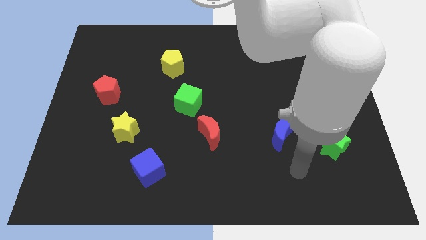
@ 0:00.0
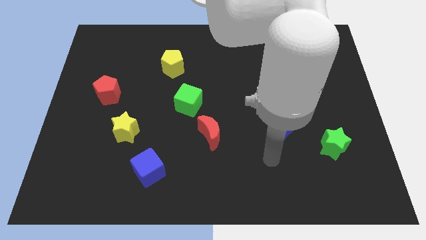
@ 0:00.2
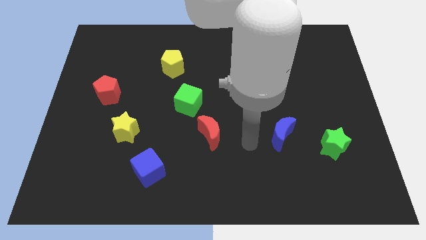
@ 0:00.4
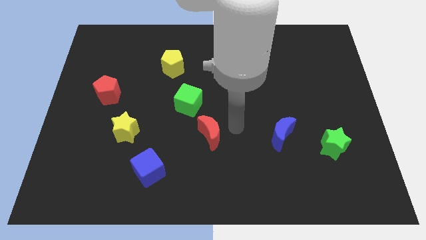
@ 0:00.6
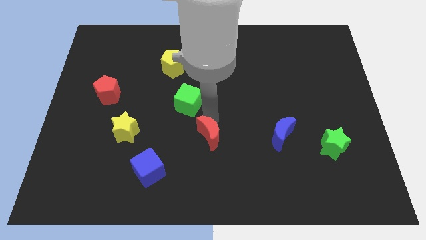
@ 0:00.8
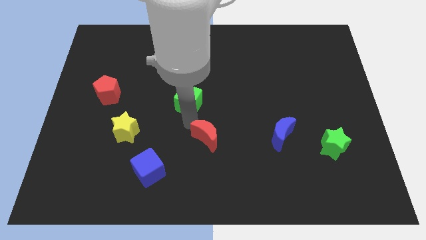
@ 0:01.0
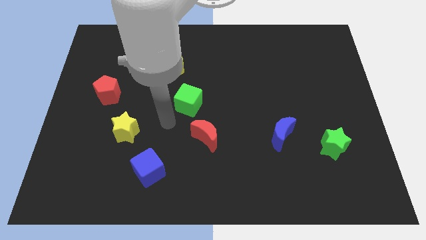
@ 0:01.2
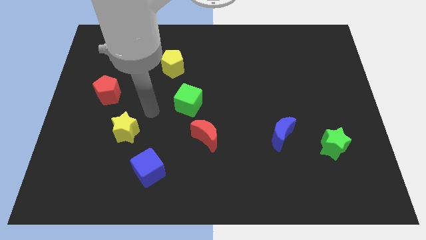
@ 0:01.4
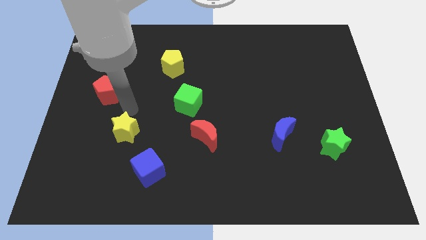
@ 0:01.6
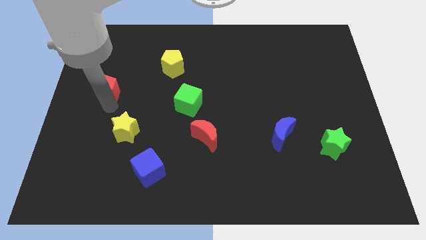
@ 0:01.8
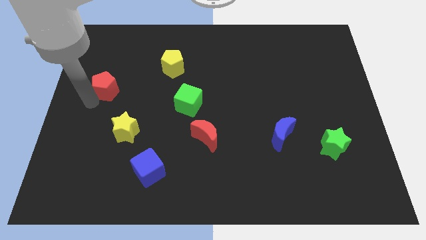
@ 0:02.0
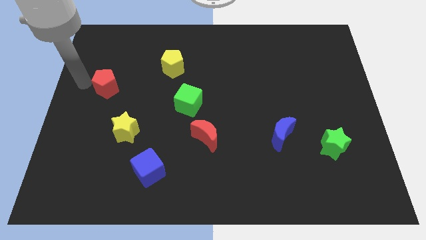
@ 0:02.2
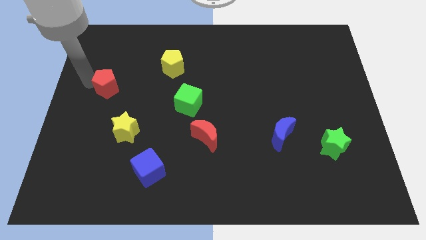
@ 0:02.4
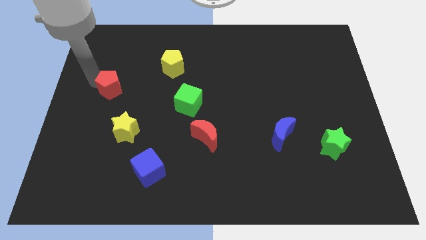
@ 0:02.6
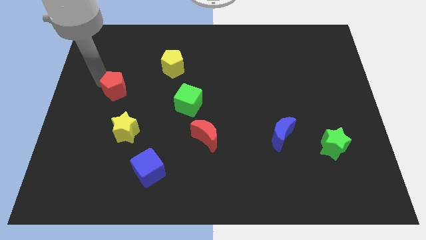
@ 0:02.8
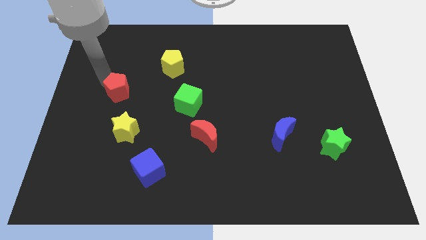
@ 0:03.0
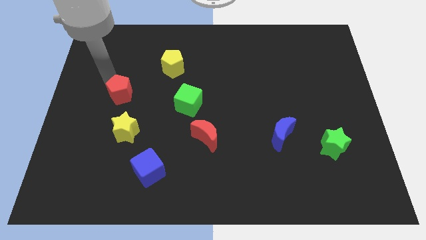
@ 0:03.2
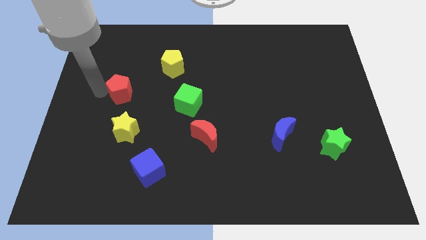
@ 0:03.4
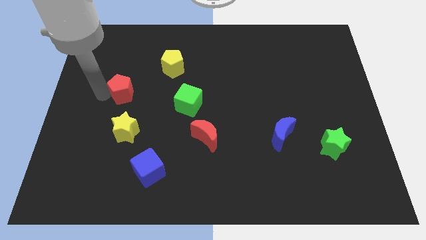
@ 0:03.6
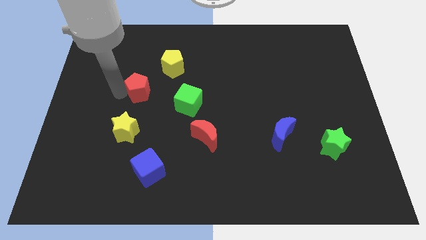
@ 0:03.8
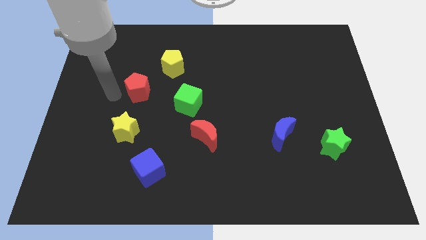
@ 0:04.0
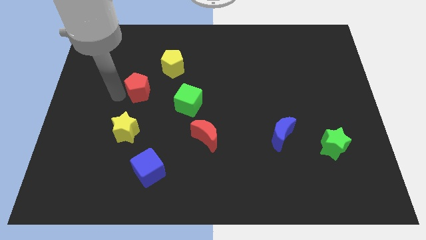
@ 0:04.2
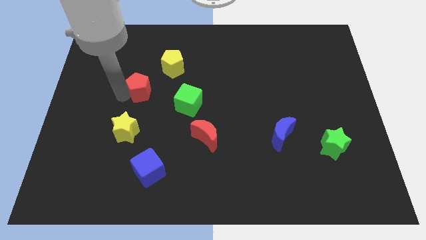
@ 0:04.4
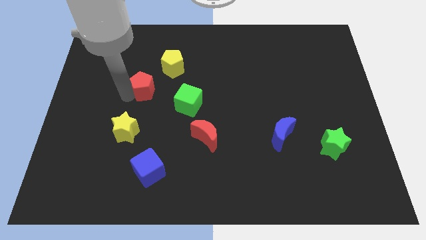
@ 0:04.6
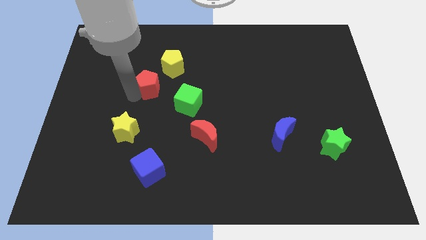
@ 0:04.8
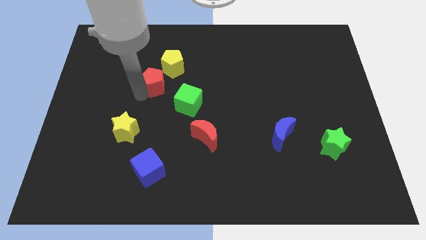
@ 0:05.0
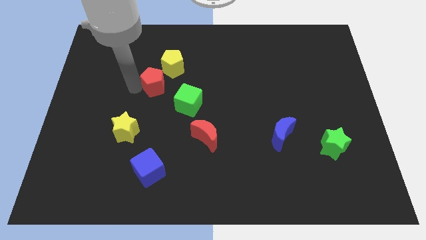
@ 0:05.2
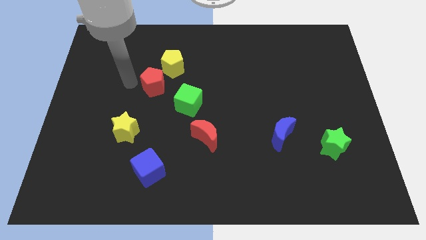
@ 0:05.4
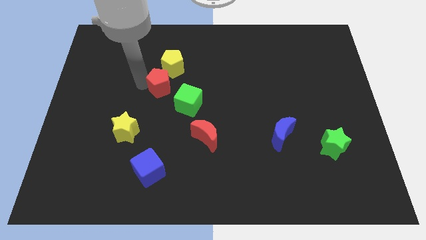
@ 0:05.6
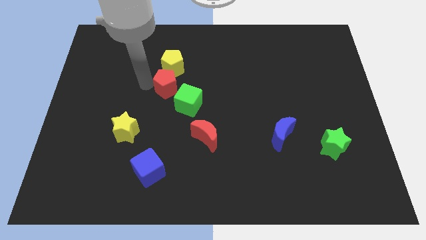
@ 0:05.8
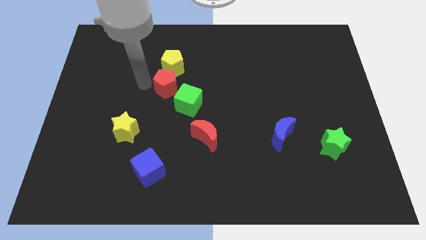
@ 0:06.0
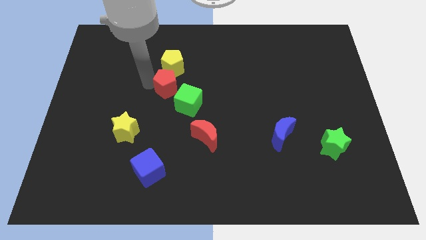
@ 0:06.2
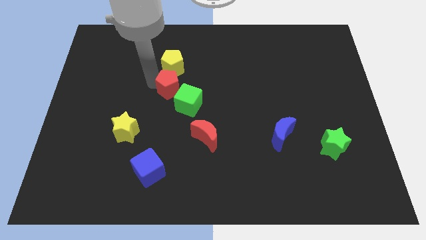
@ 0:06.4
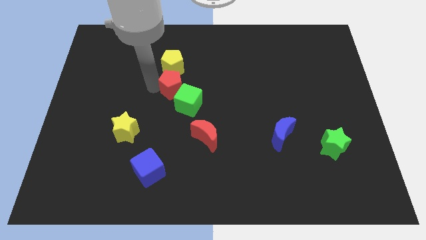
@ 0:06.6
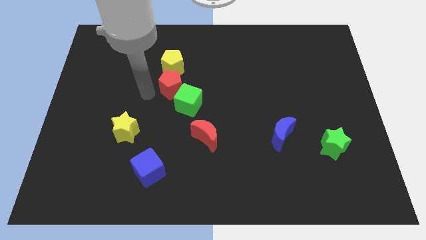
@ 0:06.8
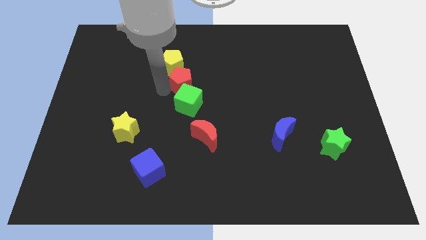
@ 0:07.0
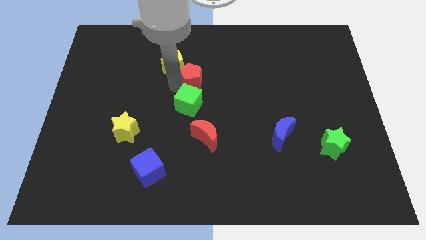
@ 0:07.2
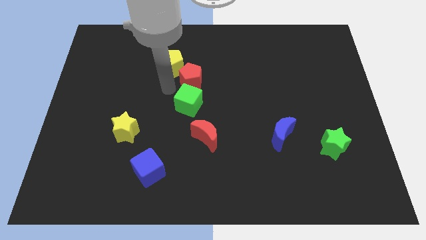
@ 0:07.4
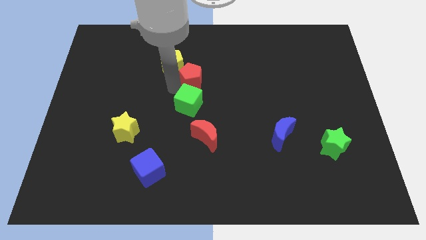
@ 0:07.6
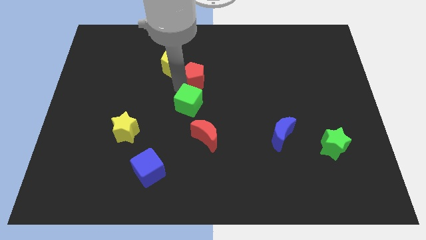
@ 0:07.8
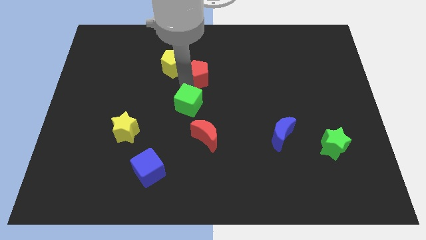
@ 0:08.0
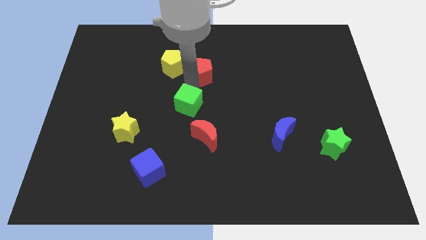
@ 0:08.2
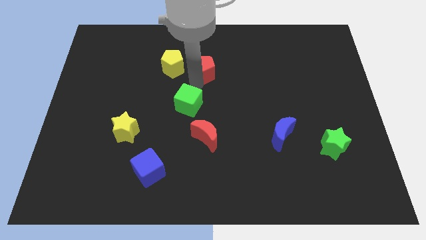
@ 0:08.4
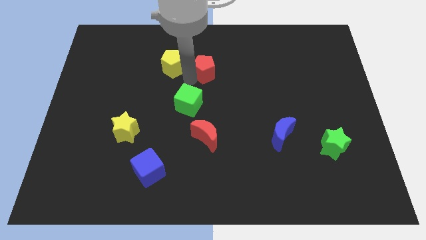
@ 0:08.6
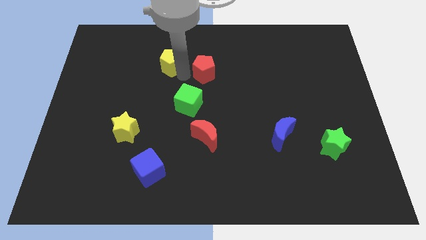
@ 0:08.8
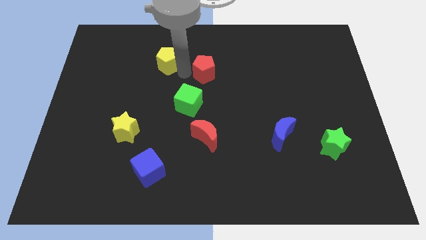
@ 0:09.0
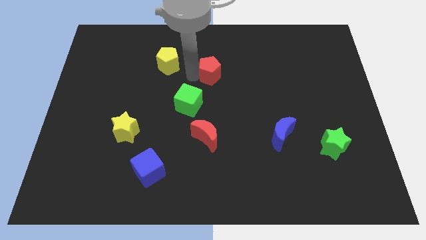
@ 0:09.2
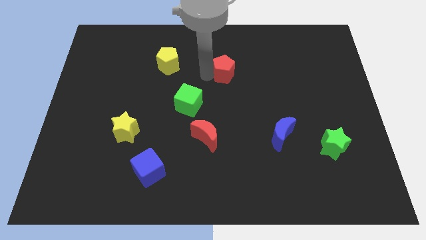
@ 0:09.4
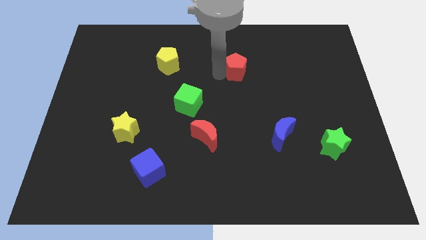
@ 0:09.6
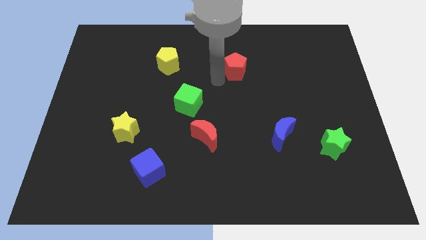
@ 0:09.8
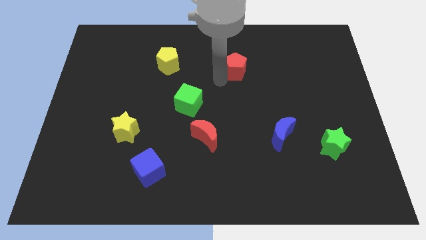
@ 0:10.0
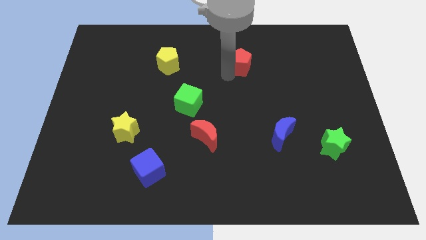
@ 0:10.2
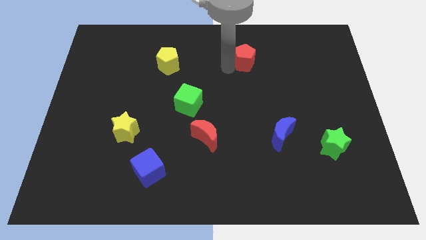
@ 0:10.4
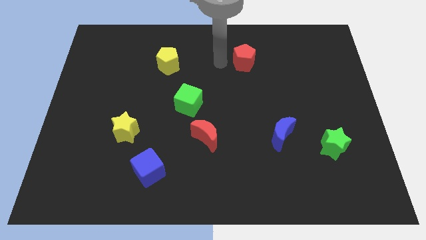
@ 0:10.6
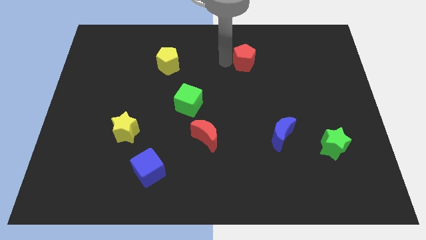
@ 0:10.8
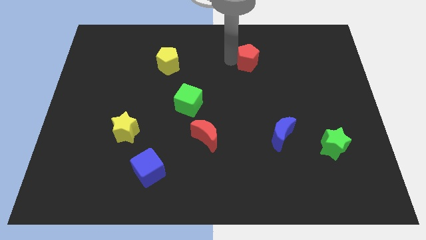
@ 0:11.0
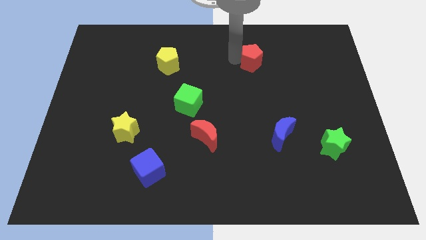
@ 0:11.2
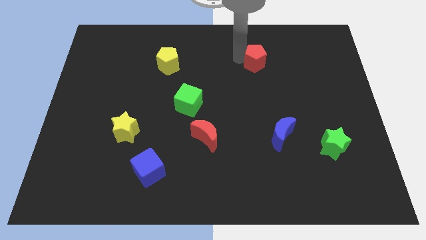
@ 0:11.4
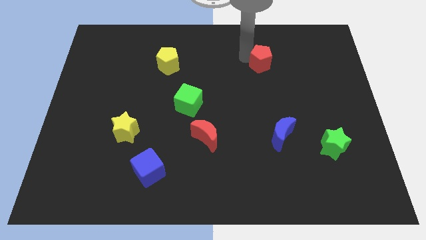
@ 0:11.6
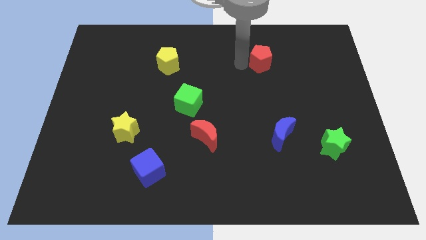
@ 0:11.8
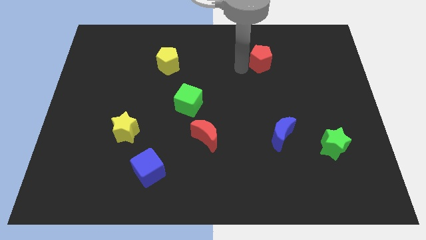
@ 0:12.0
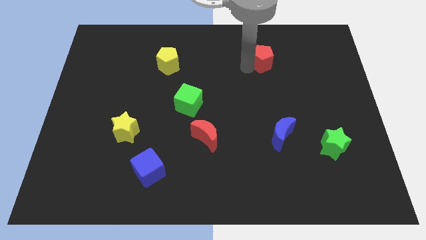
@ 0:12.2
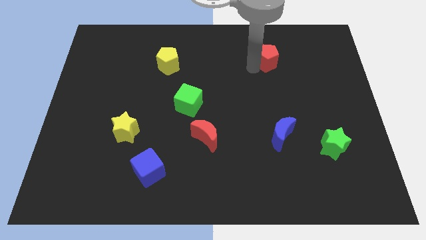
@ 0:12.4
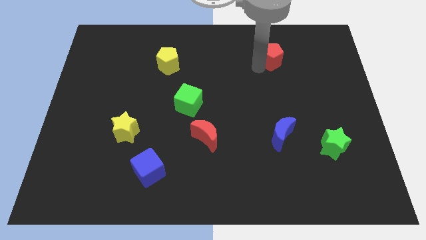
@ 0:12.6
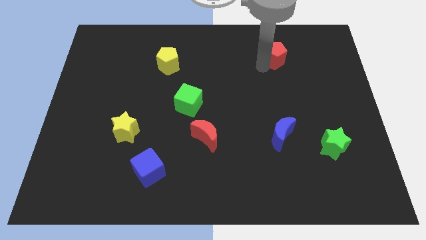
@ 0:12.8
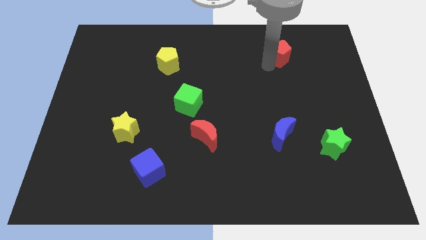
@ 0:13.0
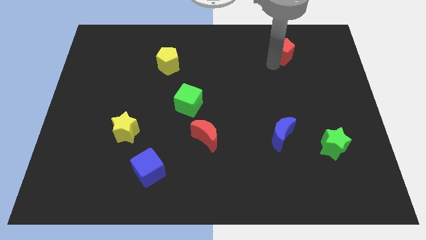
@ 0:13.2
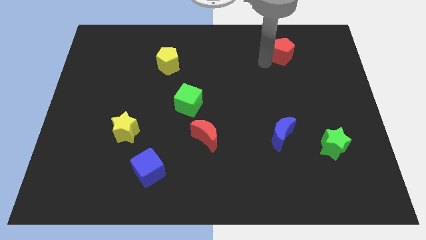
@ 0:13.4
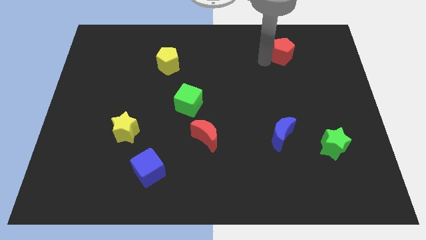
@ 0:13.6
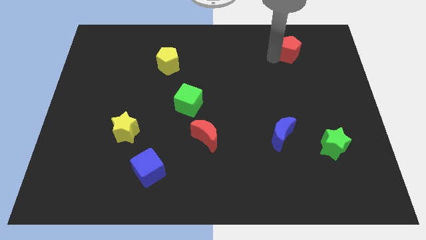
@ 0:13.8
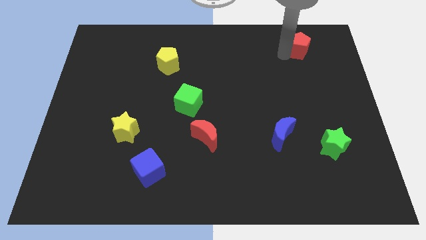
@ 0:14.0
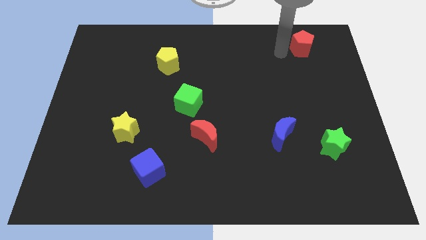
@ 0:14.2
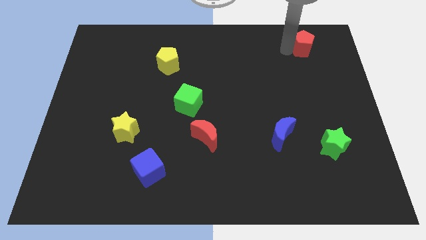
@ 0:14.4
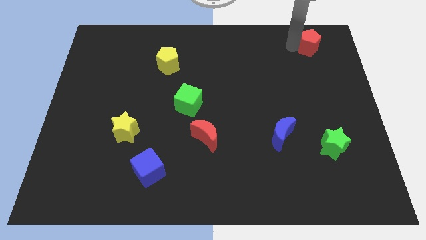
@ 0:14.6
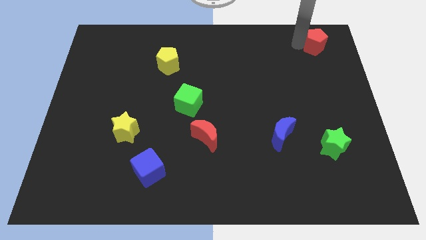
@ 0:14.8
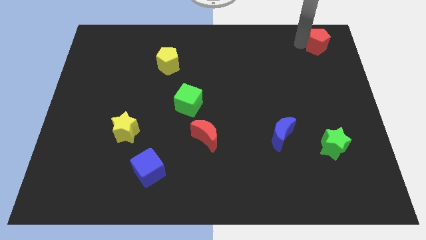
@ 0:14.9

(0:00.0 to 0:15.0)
put the red pentagon to the top right
